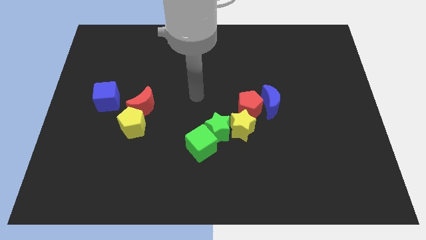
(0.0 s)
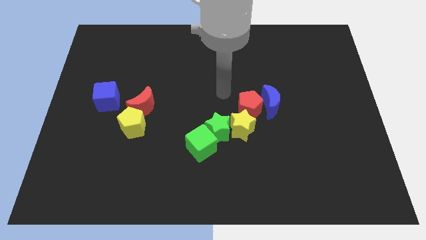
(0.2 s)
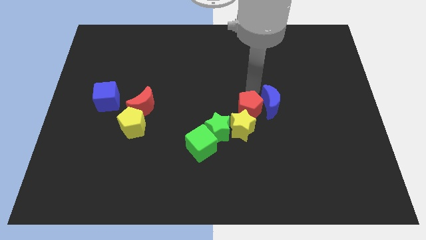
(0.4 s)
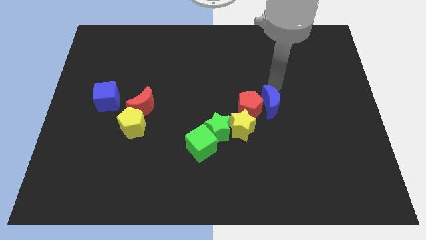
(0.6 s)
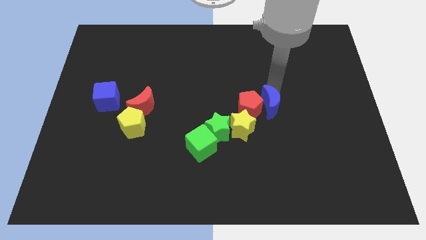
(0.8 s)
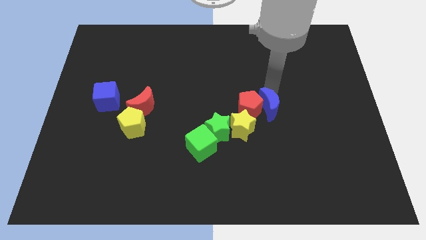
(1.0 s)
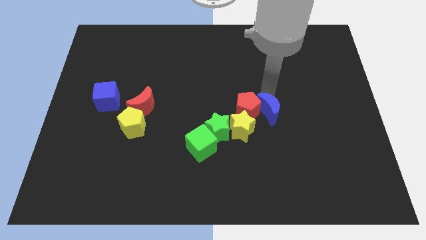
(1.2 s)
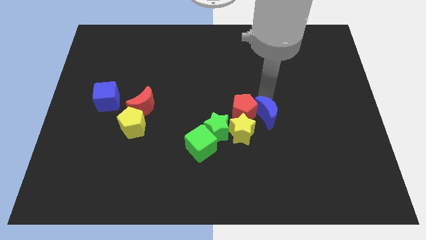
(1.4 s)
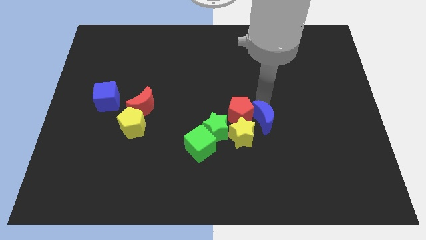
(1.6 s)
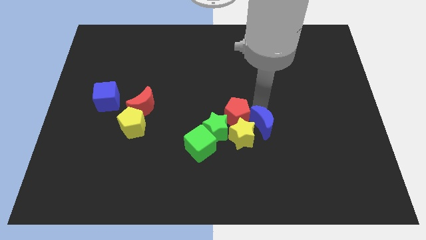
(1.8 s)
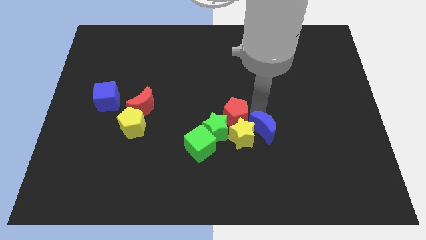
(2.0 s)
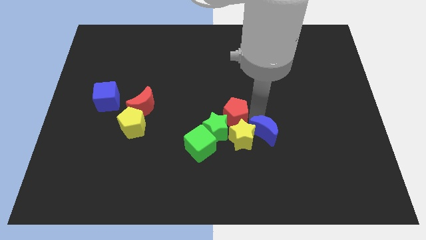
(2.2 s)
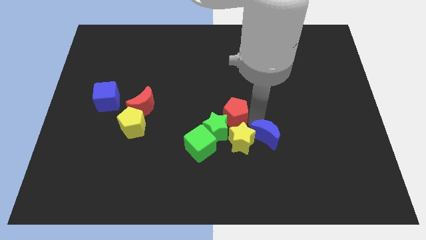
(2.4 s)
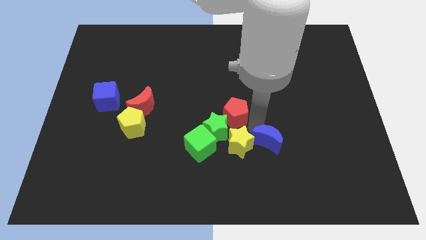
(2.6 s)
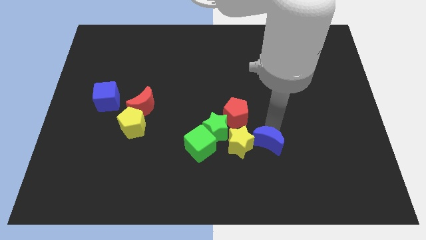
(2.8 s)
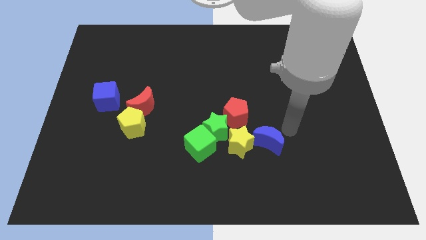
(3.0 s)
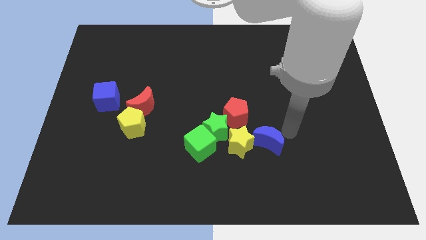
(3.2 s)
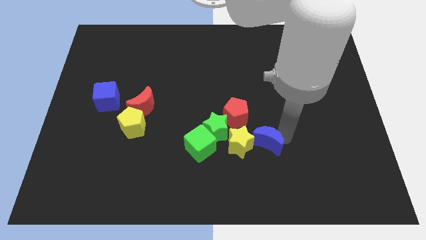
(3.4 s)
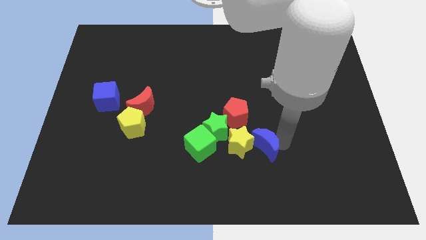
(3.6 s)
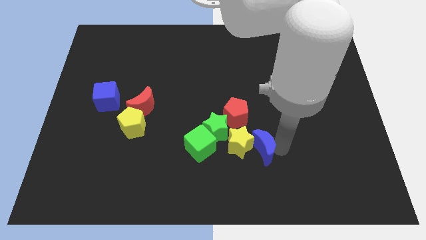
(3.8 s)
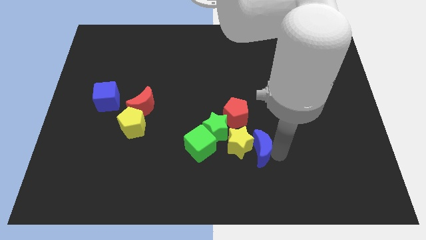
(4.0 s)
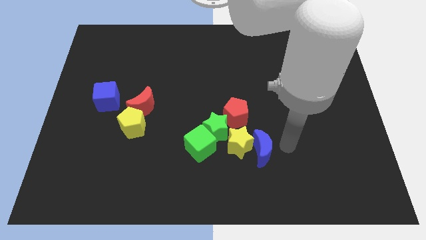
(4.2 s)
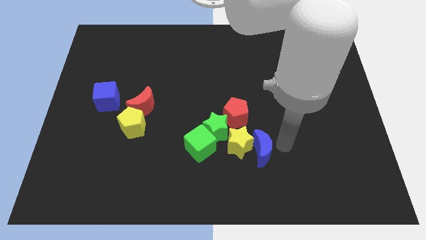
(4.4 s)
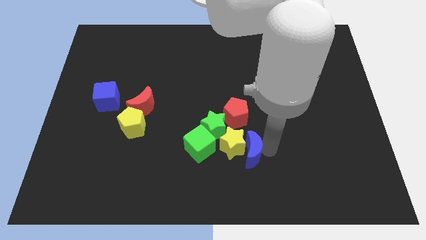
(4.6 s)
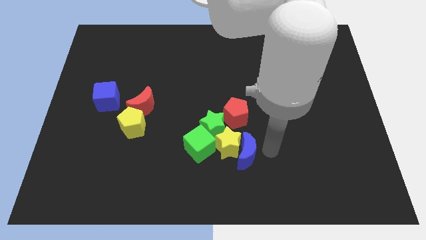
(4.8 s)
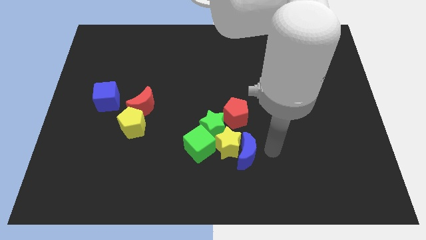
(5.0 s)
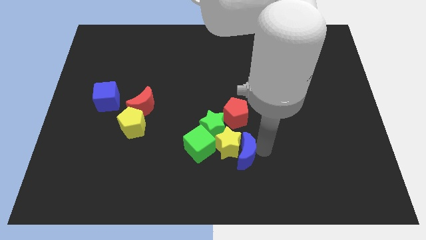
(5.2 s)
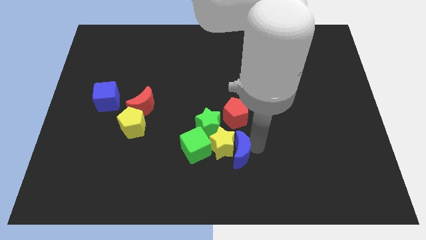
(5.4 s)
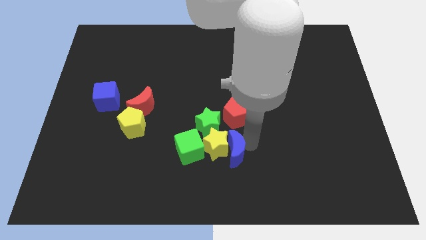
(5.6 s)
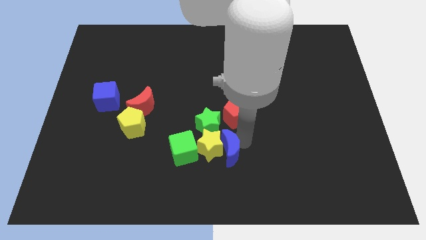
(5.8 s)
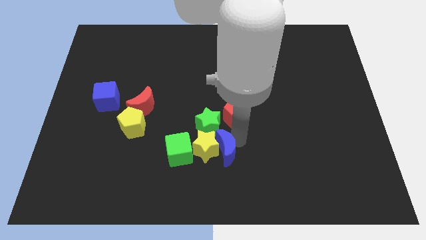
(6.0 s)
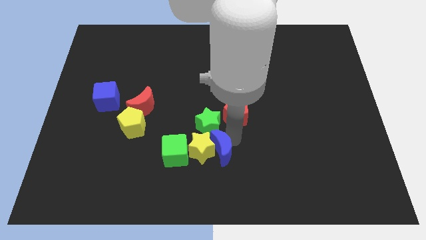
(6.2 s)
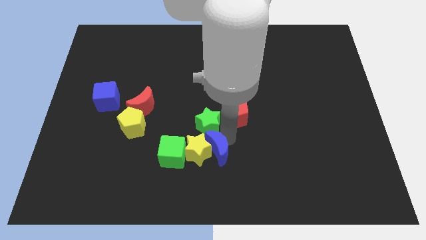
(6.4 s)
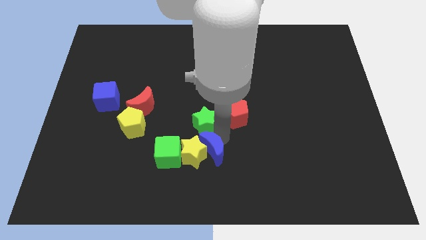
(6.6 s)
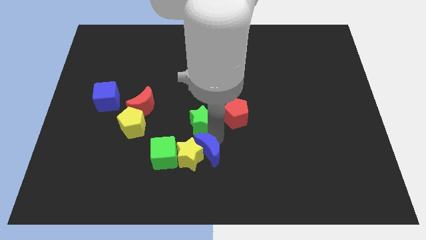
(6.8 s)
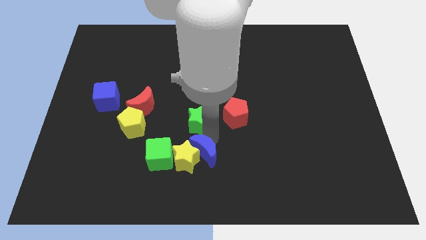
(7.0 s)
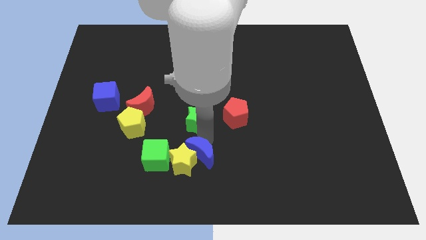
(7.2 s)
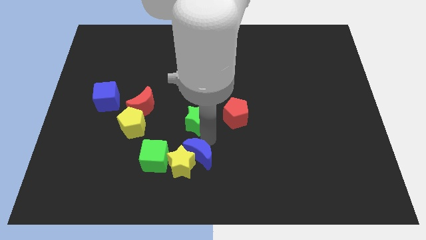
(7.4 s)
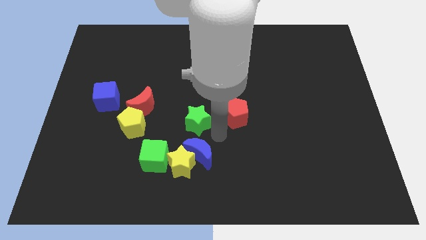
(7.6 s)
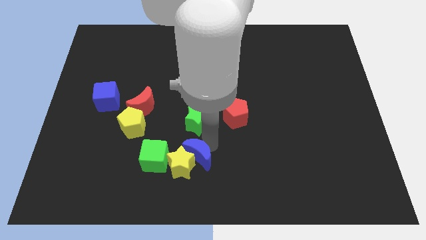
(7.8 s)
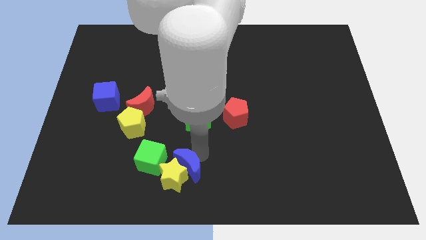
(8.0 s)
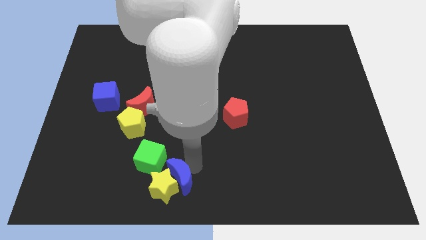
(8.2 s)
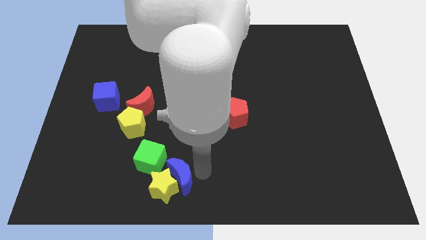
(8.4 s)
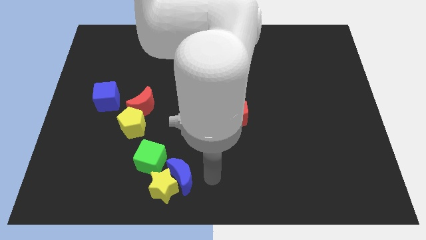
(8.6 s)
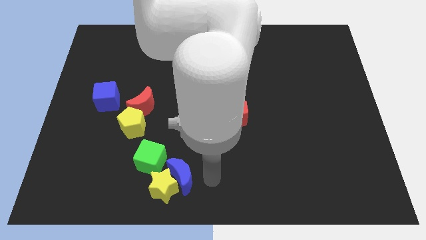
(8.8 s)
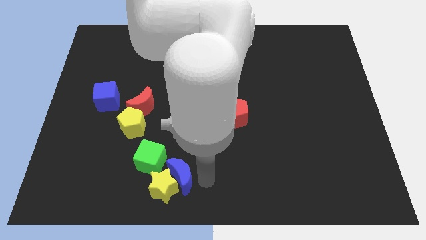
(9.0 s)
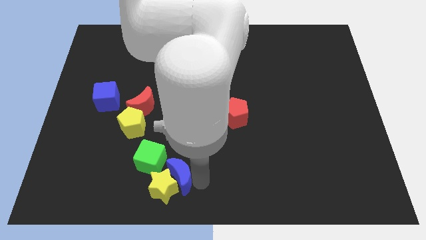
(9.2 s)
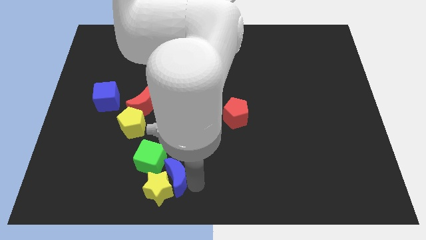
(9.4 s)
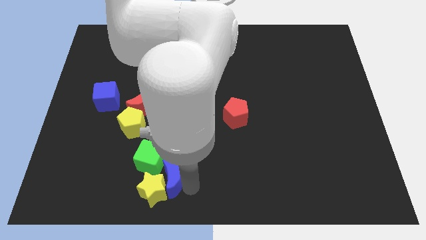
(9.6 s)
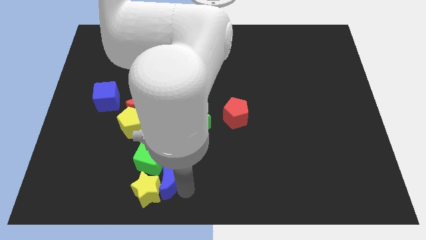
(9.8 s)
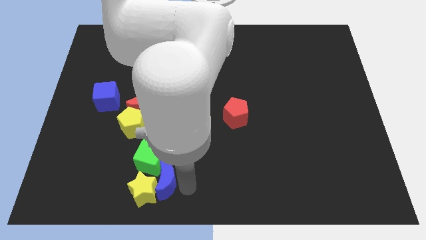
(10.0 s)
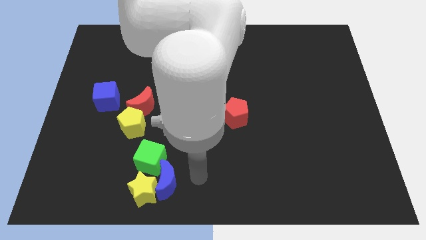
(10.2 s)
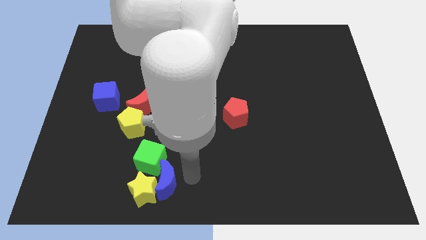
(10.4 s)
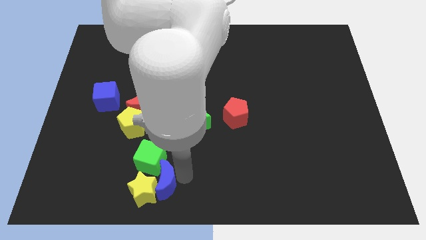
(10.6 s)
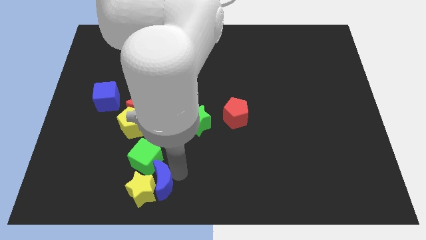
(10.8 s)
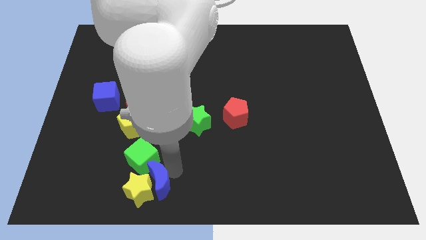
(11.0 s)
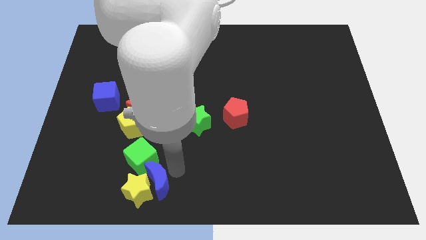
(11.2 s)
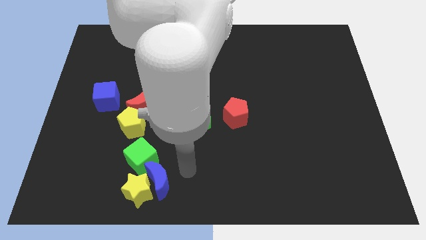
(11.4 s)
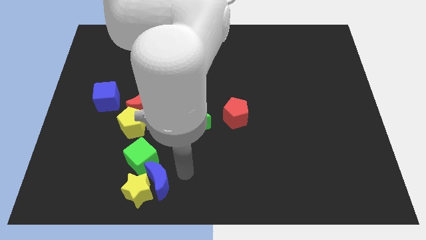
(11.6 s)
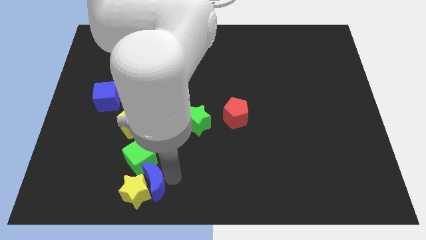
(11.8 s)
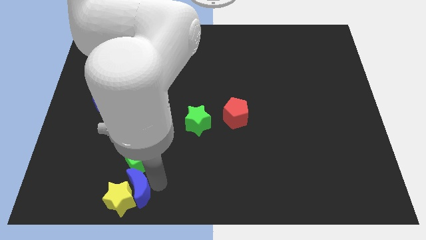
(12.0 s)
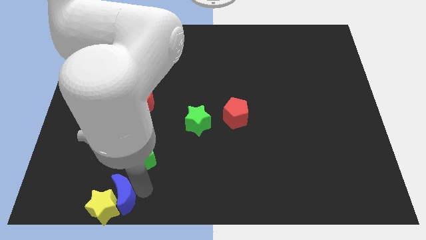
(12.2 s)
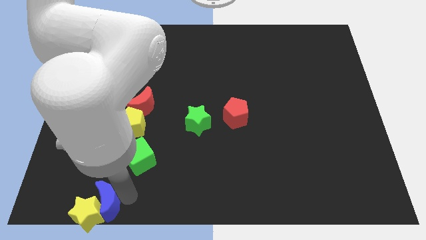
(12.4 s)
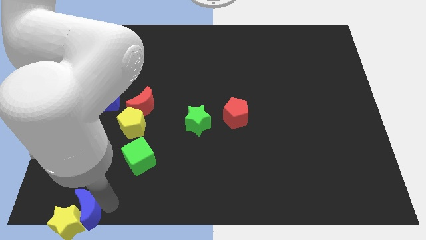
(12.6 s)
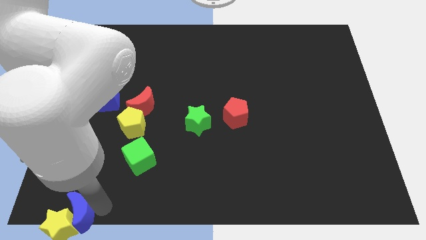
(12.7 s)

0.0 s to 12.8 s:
move the blue moon to the lower left corner

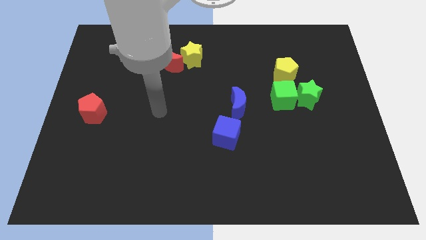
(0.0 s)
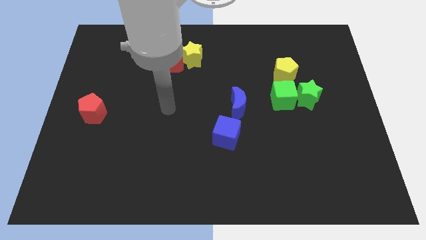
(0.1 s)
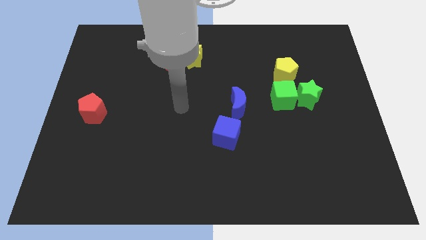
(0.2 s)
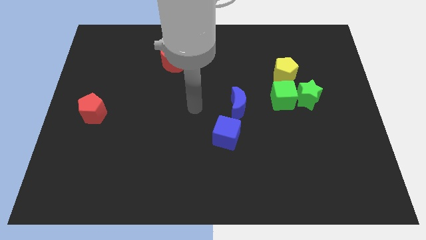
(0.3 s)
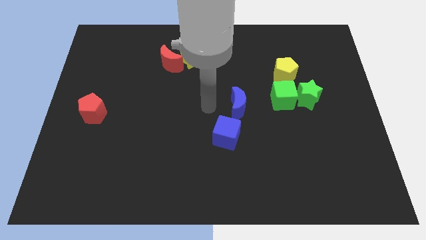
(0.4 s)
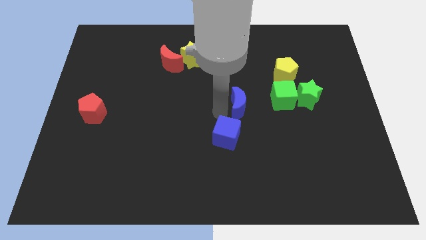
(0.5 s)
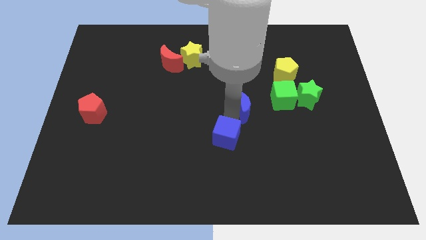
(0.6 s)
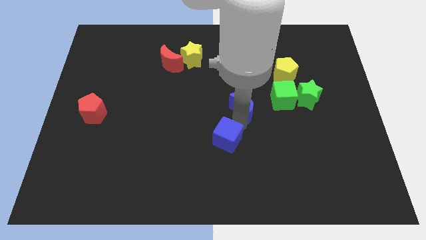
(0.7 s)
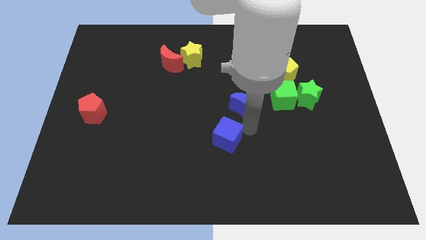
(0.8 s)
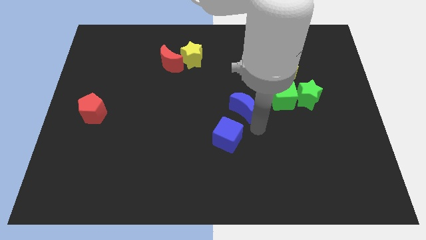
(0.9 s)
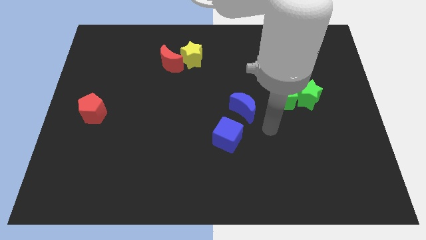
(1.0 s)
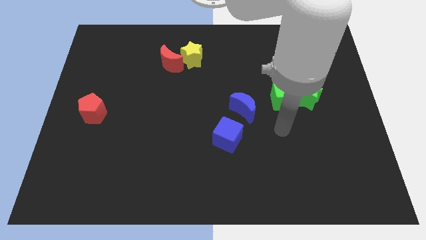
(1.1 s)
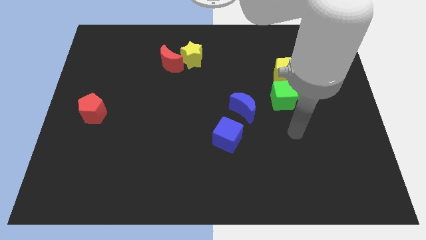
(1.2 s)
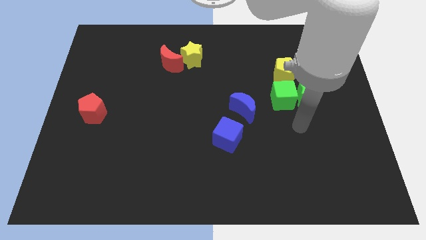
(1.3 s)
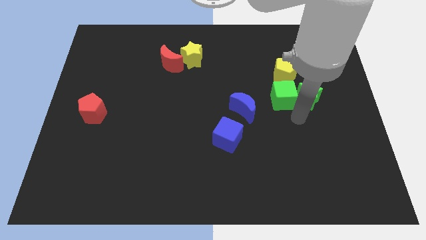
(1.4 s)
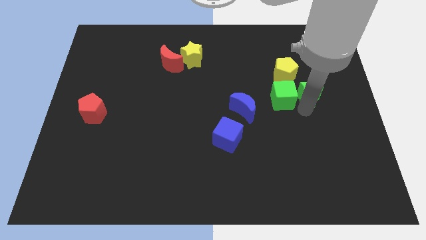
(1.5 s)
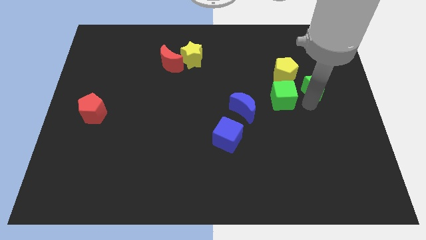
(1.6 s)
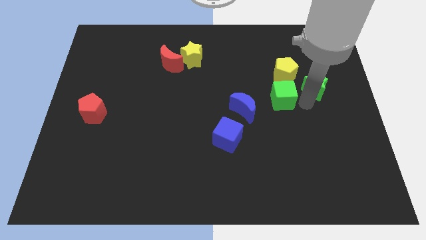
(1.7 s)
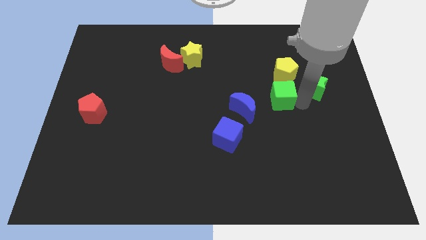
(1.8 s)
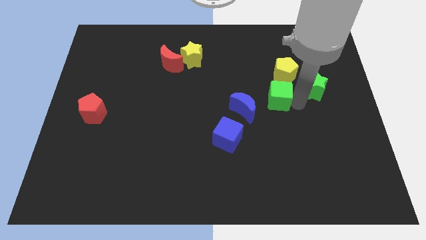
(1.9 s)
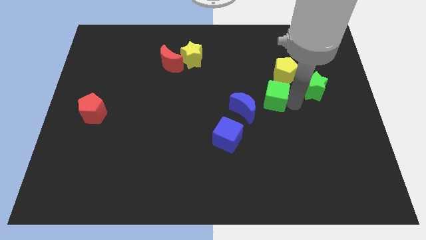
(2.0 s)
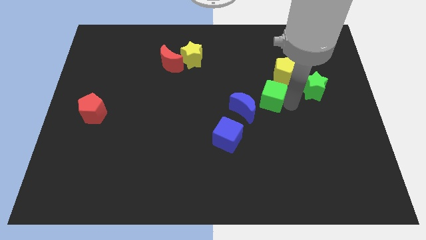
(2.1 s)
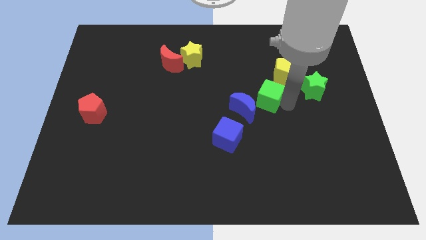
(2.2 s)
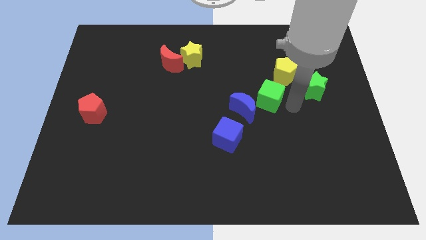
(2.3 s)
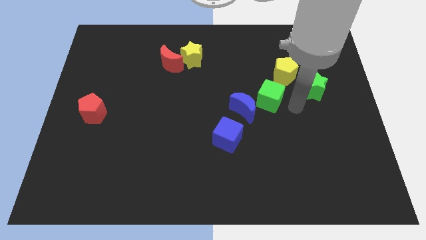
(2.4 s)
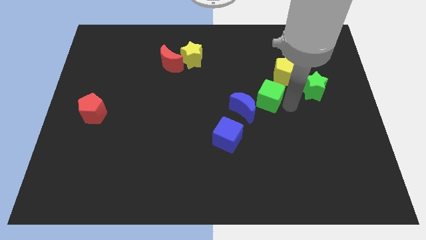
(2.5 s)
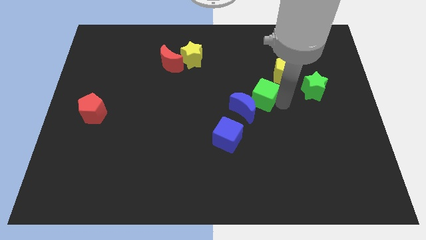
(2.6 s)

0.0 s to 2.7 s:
slide the green cube to the middle of the board
